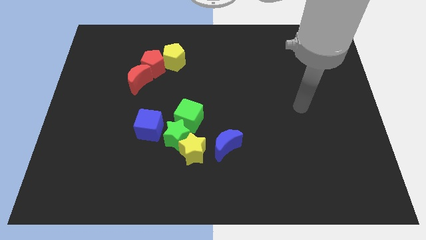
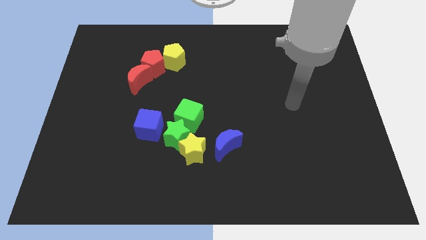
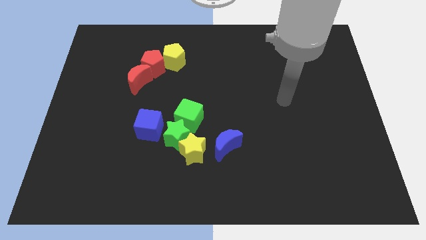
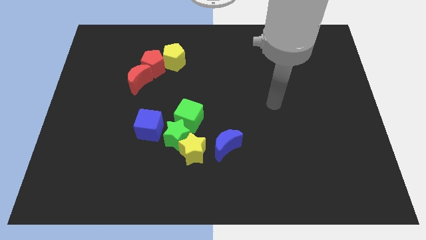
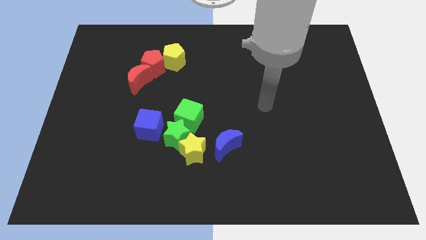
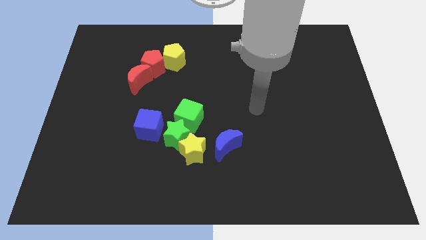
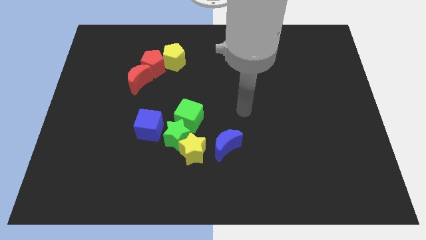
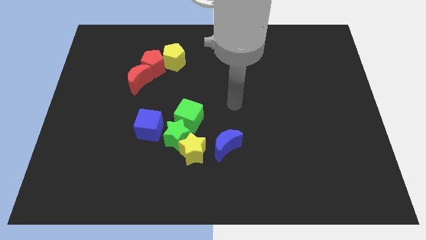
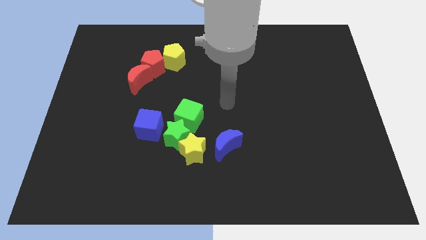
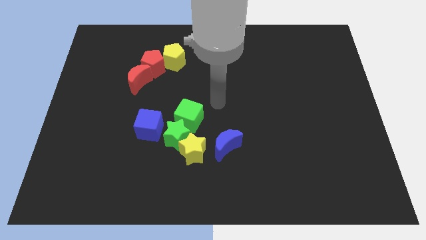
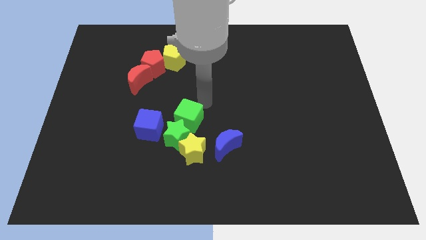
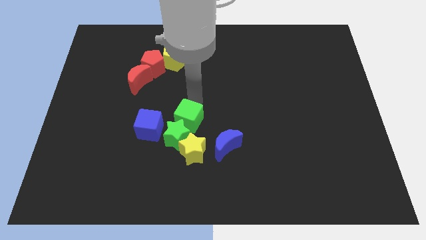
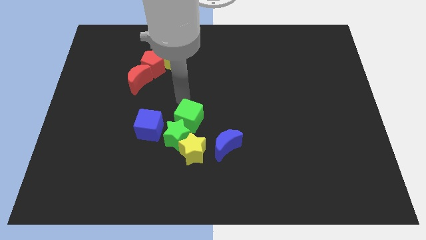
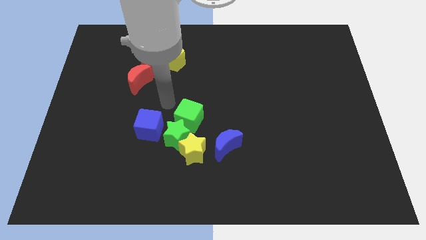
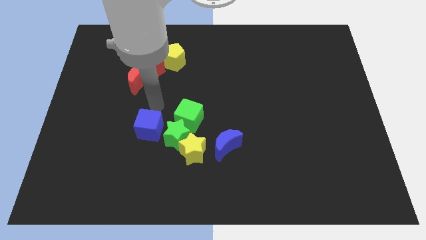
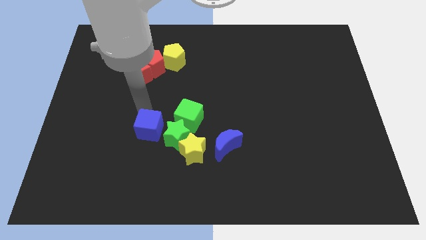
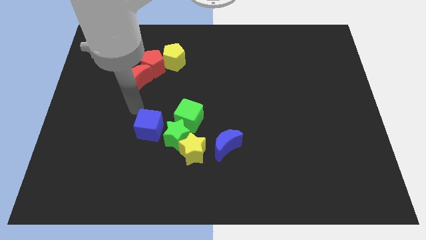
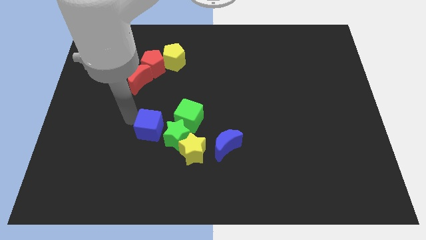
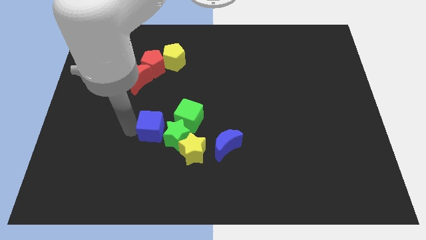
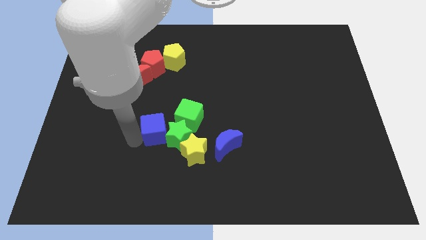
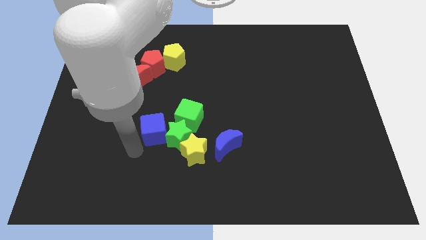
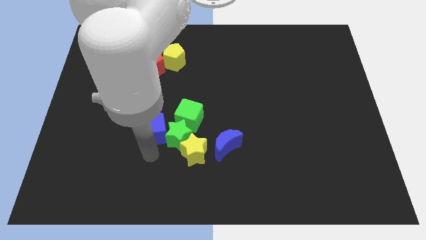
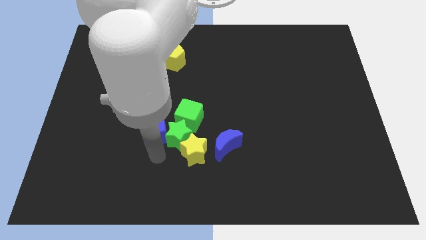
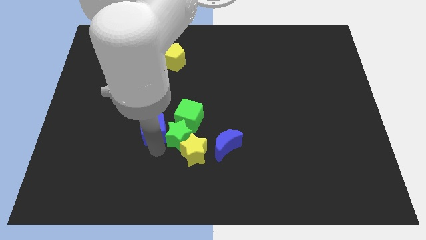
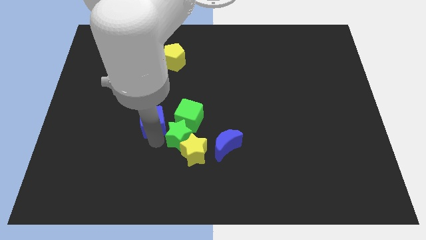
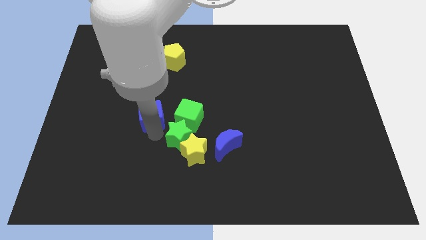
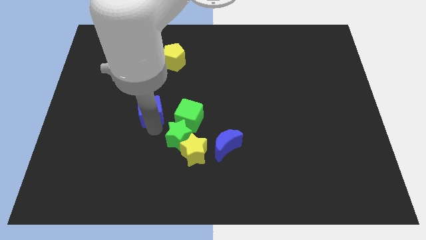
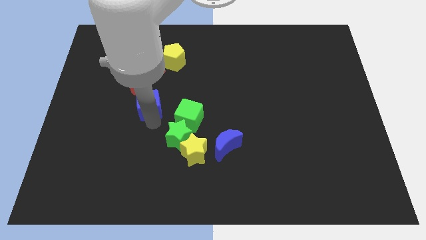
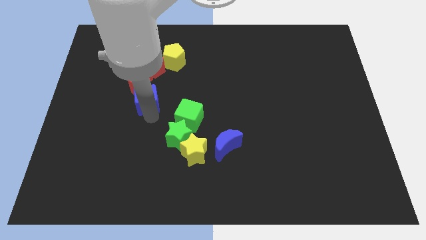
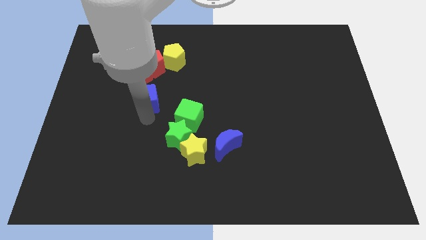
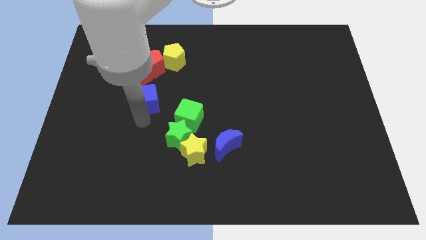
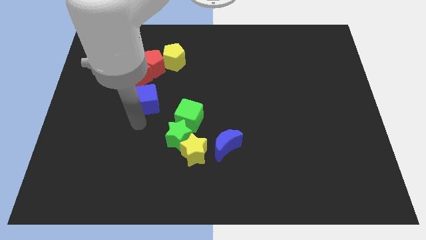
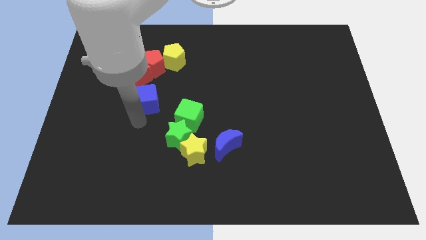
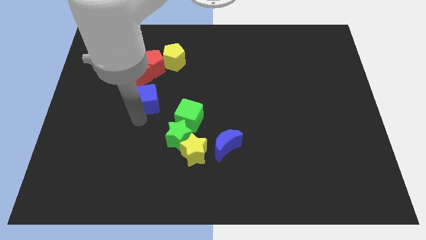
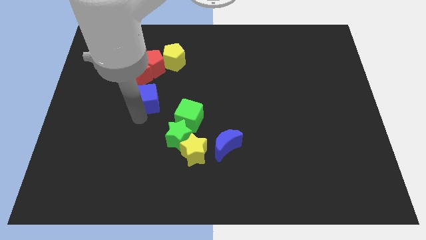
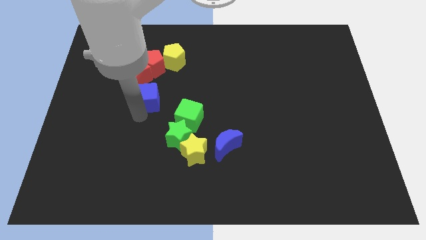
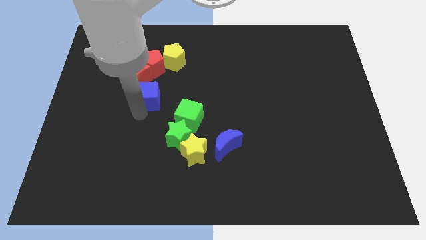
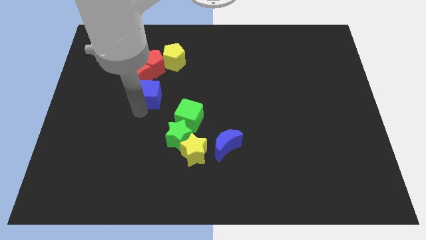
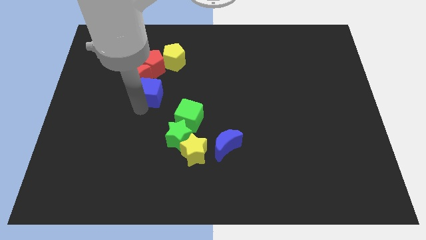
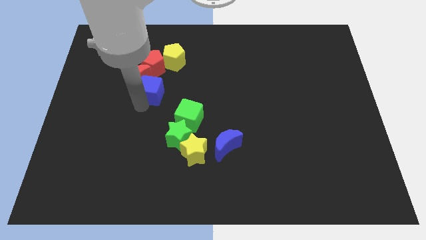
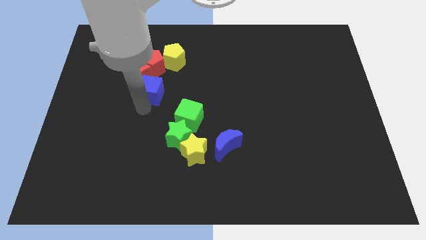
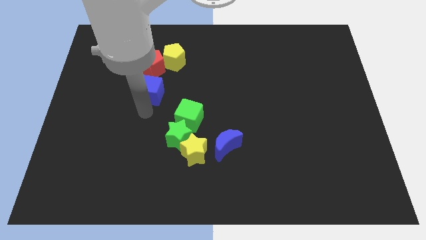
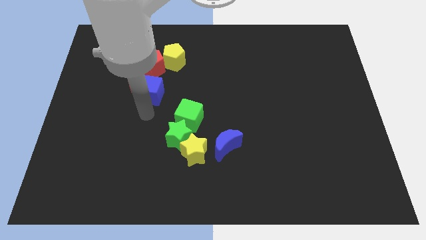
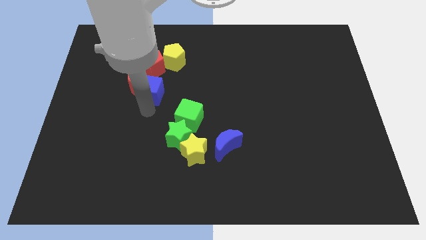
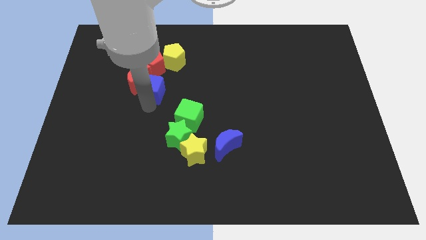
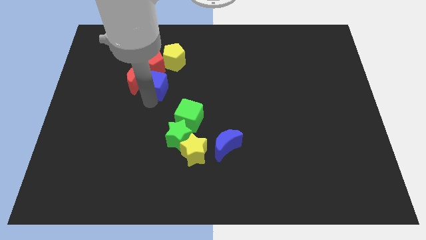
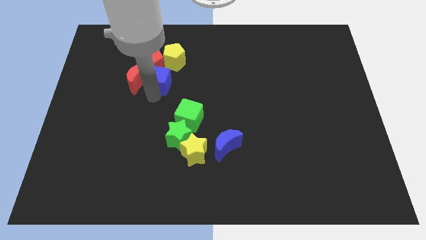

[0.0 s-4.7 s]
push the blue cube next to the red pentagon

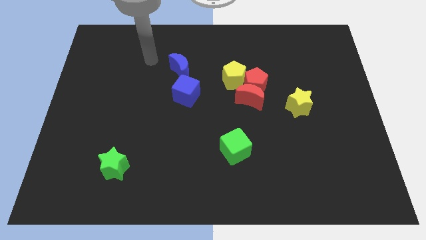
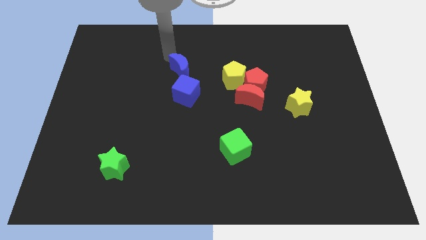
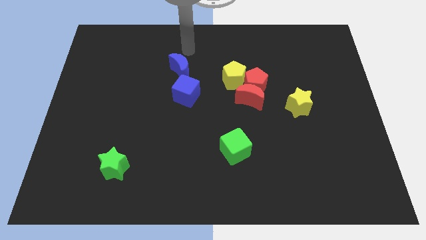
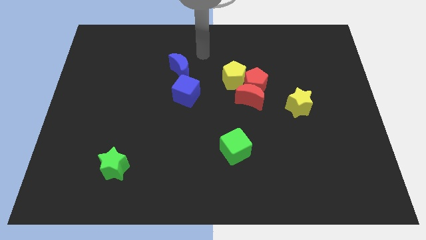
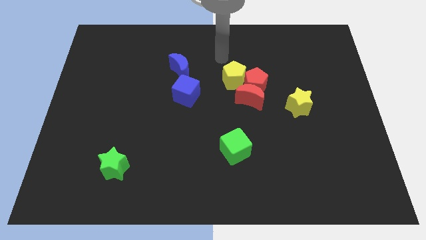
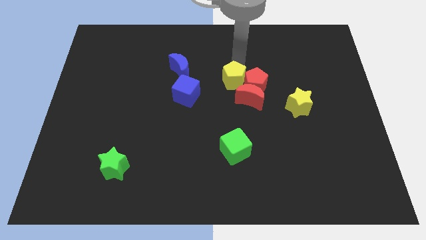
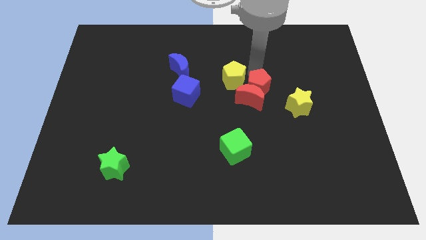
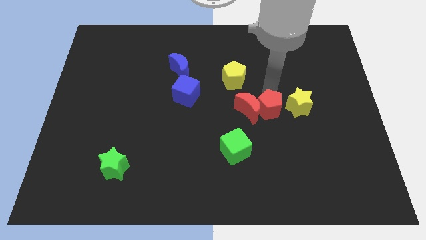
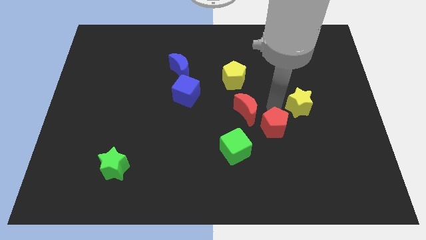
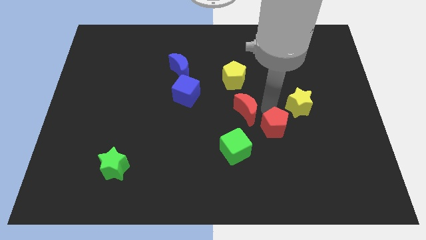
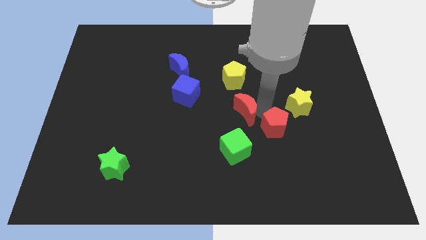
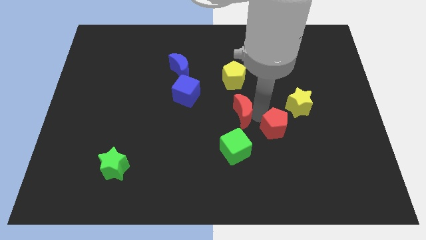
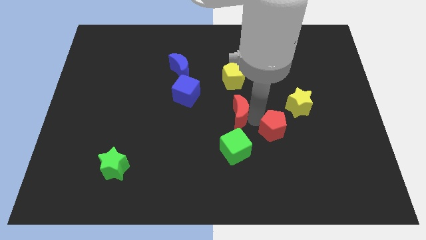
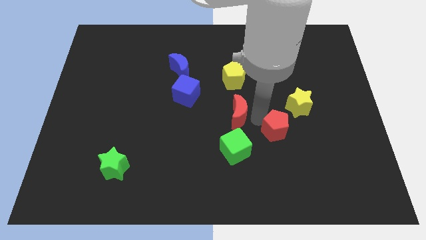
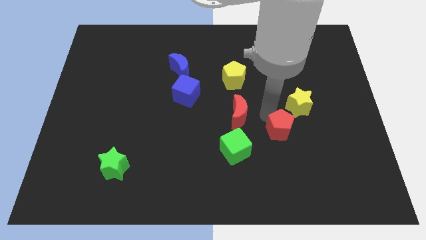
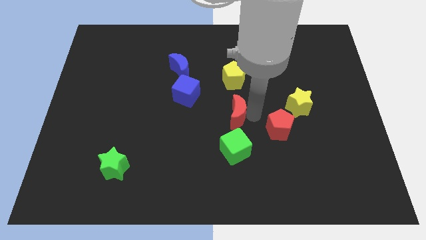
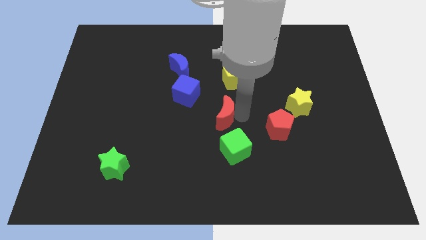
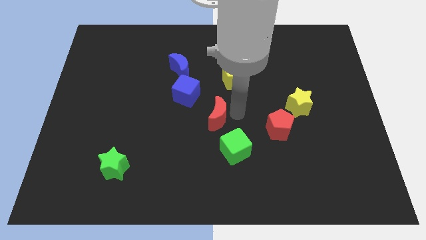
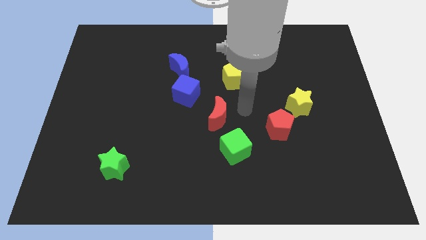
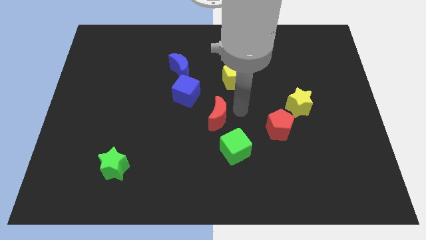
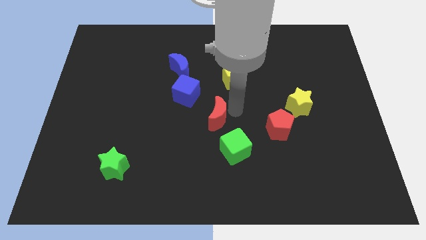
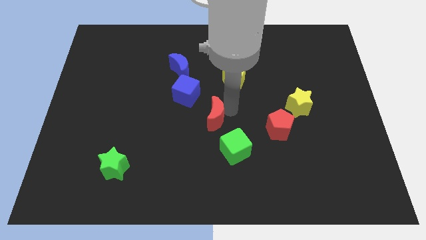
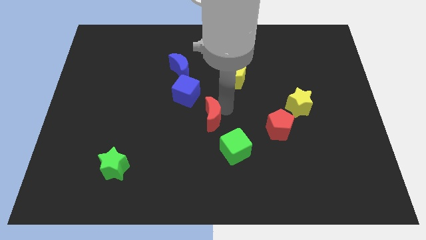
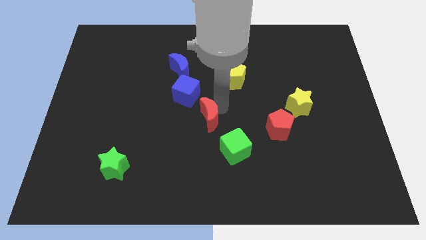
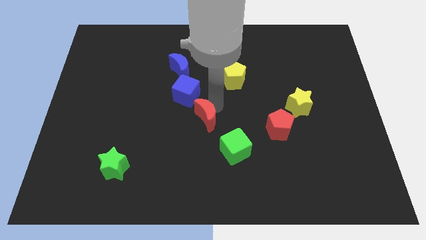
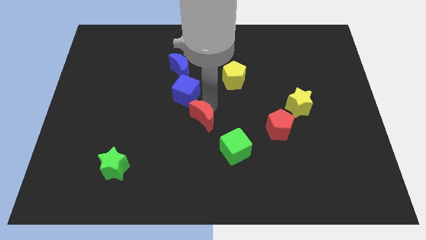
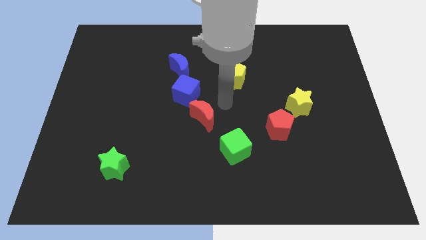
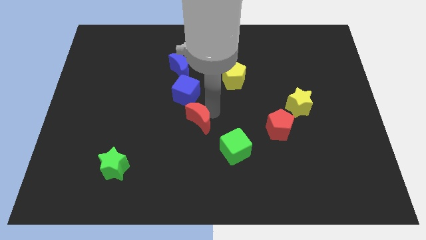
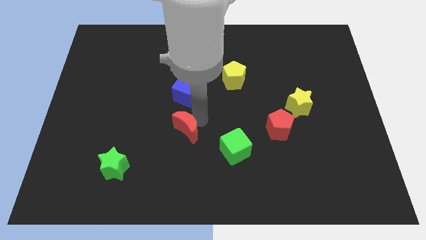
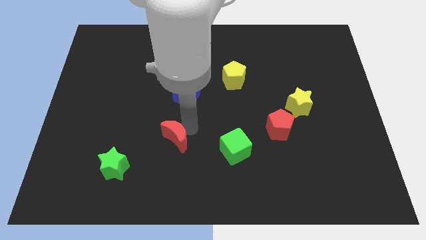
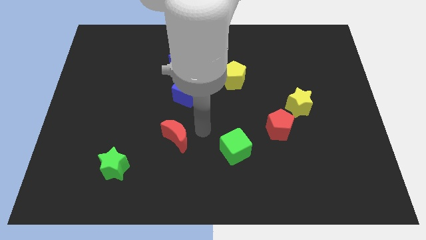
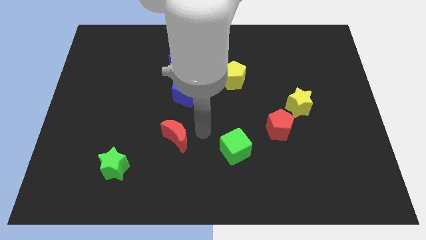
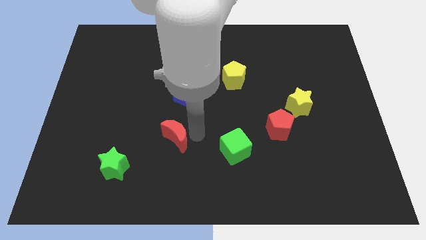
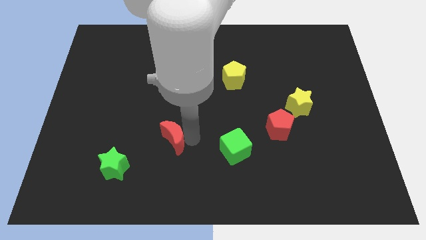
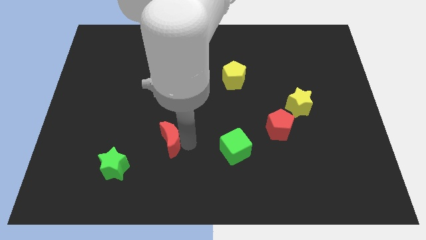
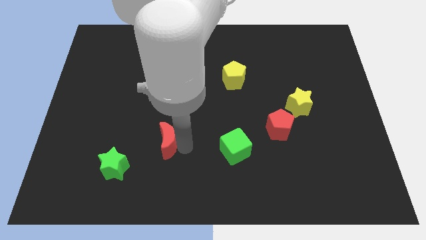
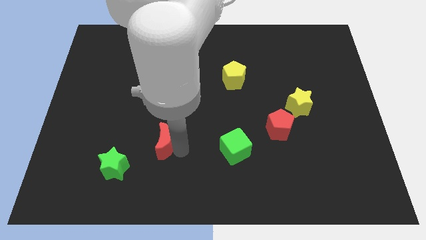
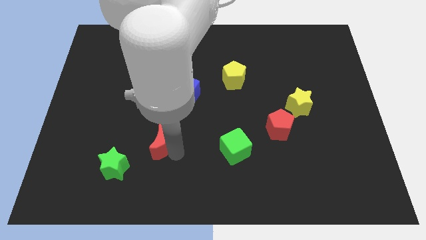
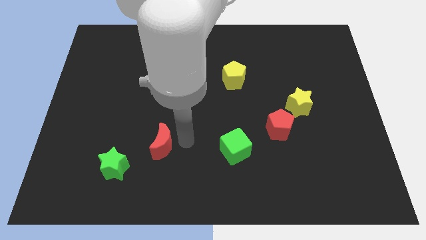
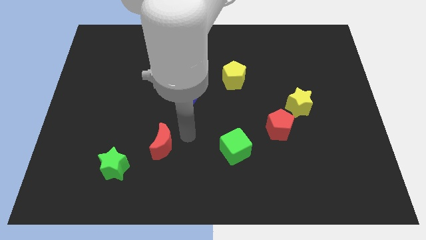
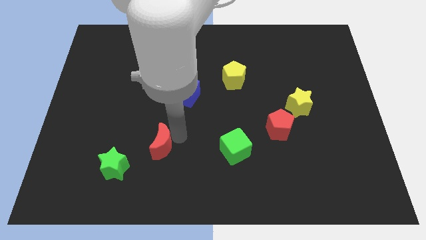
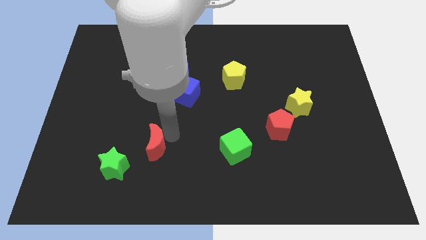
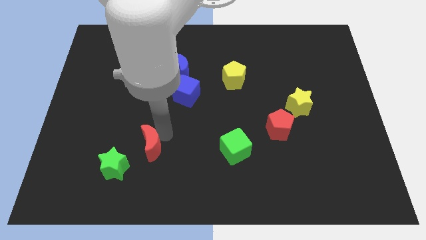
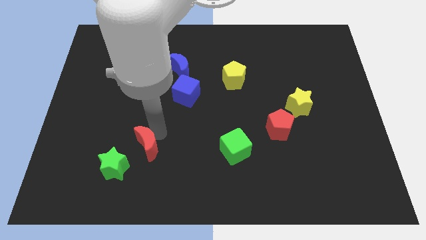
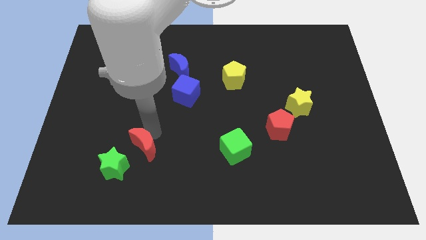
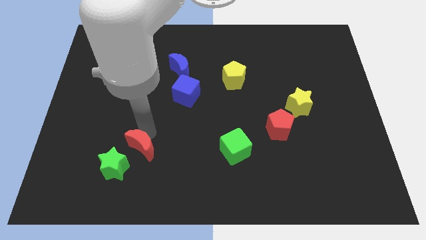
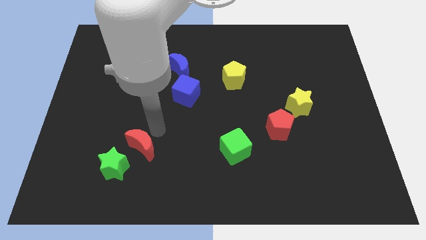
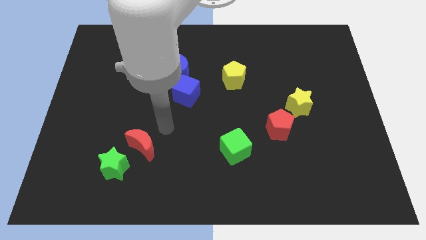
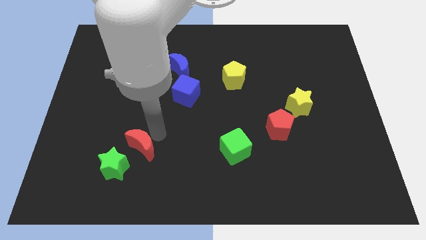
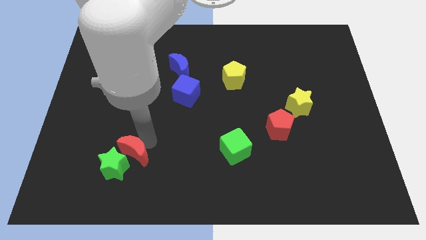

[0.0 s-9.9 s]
put the red moon next to the green star
